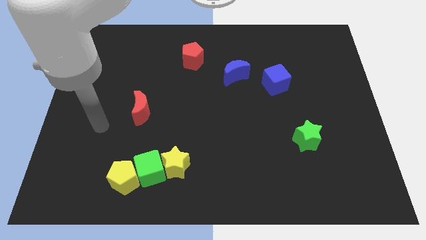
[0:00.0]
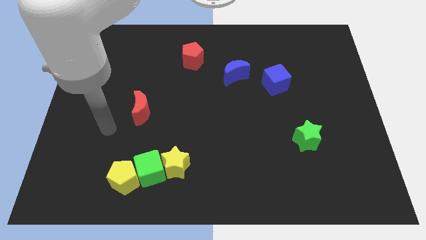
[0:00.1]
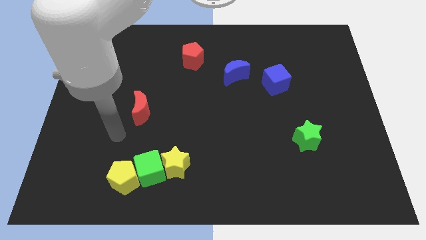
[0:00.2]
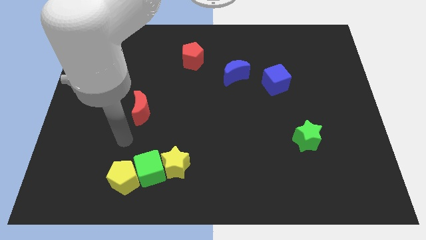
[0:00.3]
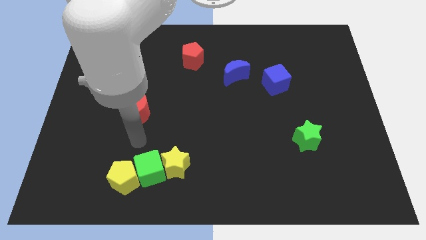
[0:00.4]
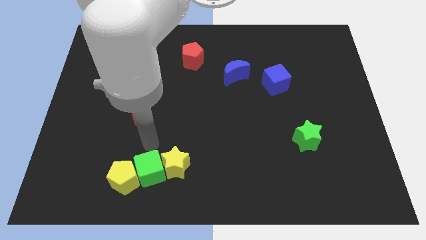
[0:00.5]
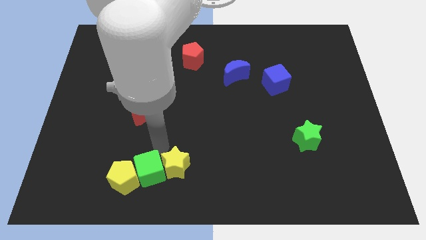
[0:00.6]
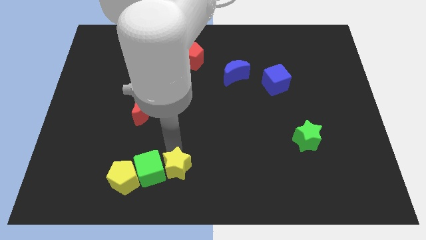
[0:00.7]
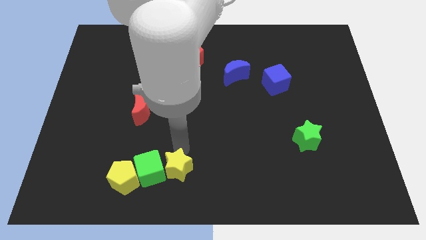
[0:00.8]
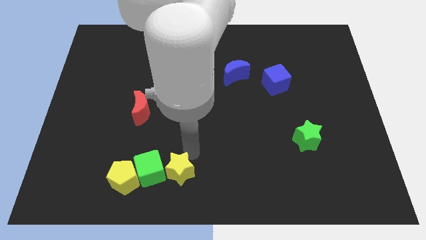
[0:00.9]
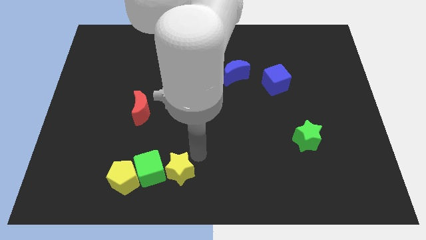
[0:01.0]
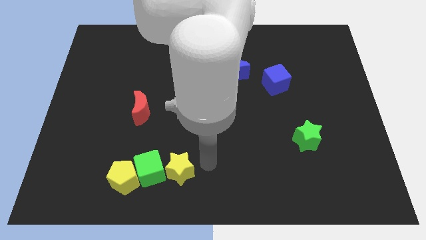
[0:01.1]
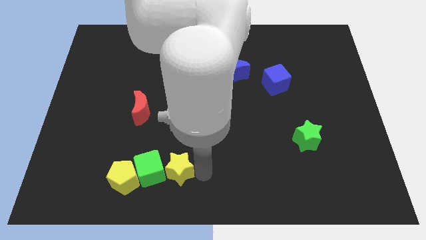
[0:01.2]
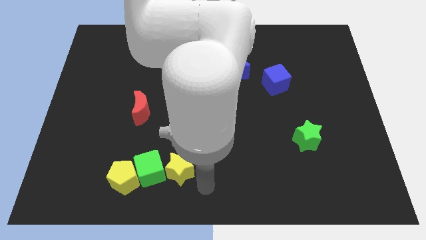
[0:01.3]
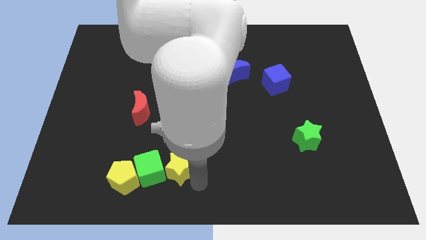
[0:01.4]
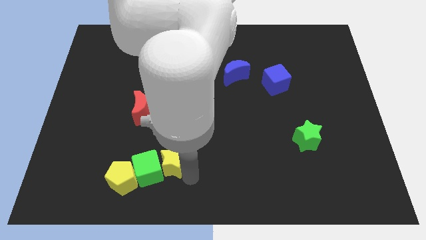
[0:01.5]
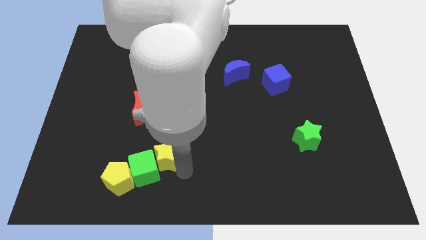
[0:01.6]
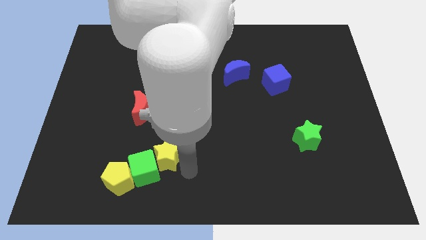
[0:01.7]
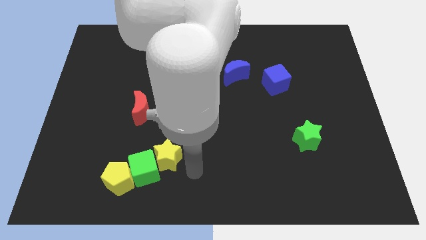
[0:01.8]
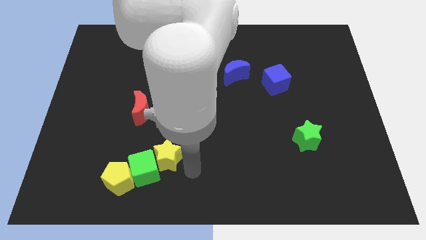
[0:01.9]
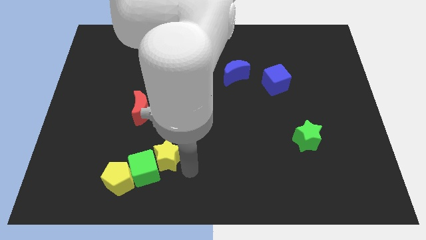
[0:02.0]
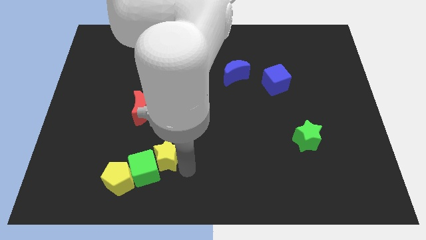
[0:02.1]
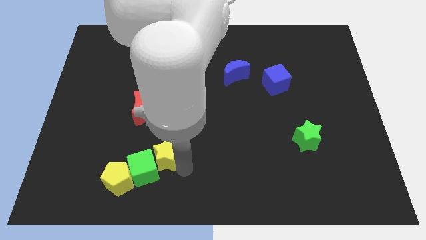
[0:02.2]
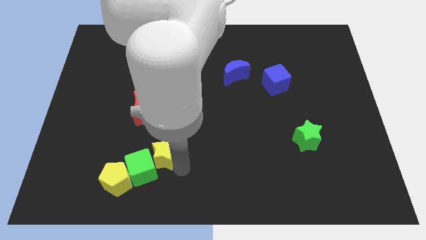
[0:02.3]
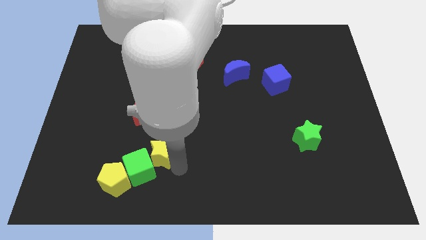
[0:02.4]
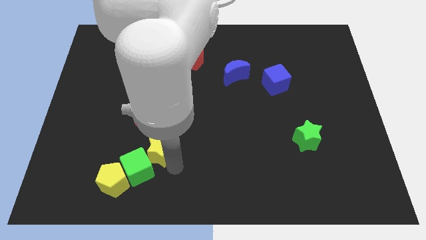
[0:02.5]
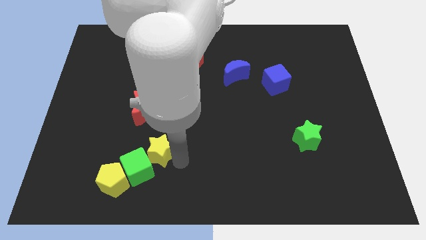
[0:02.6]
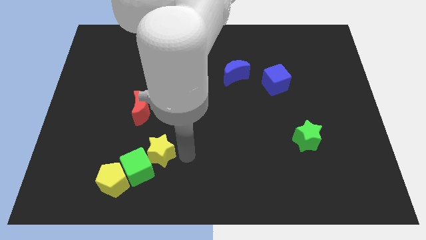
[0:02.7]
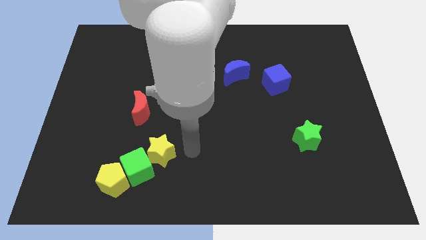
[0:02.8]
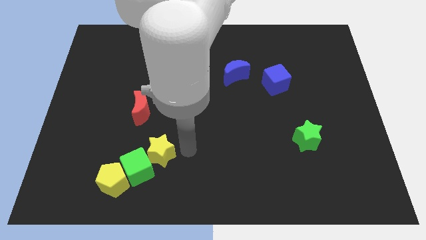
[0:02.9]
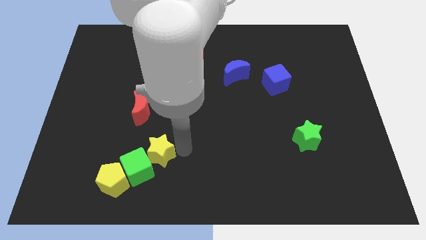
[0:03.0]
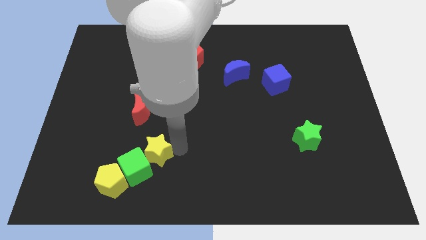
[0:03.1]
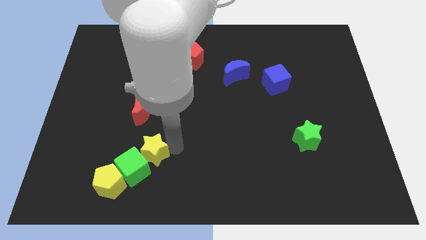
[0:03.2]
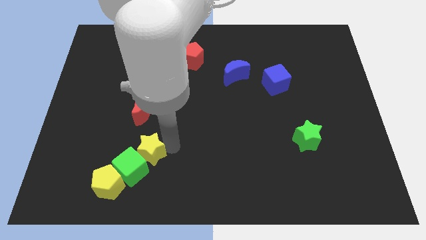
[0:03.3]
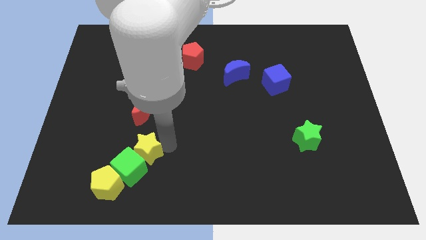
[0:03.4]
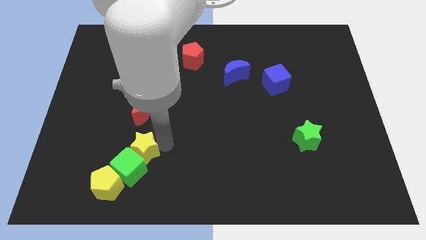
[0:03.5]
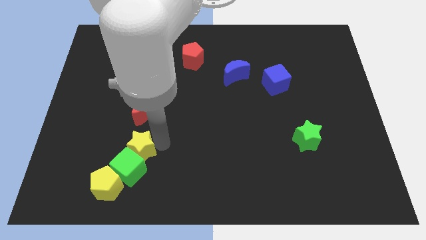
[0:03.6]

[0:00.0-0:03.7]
slightly push the yellow star to the left

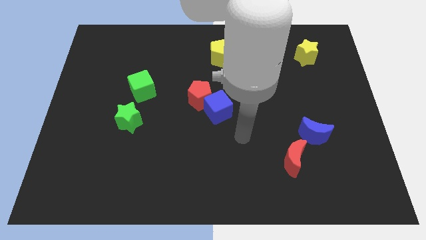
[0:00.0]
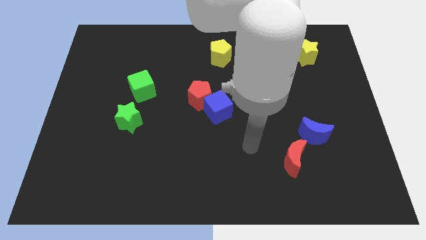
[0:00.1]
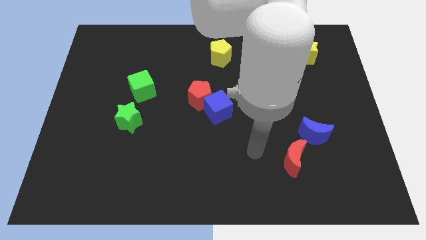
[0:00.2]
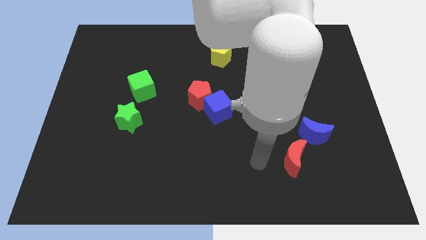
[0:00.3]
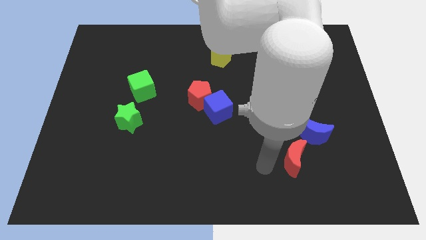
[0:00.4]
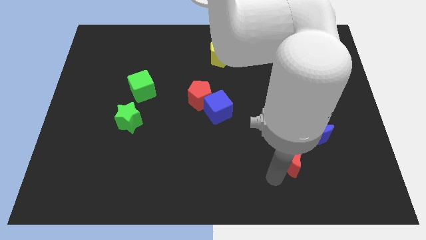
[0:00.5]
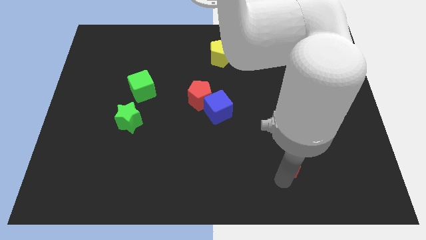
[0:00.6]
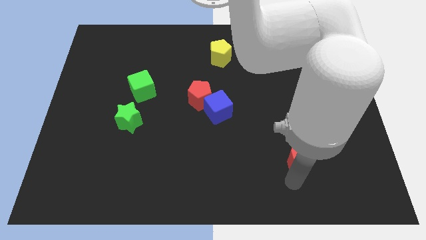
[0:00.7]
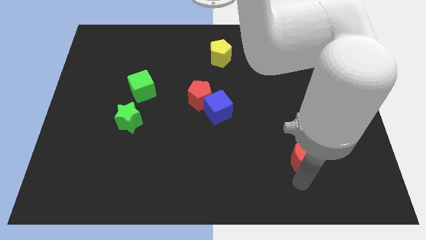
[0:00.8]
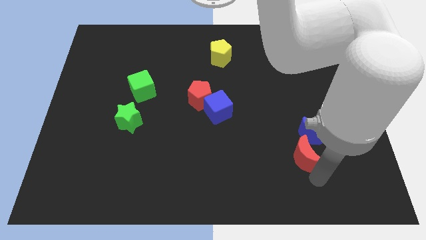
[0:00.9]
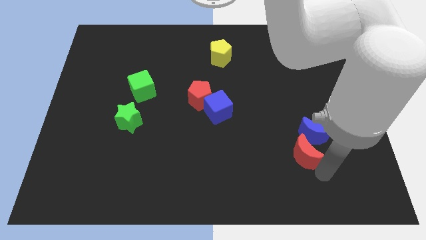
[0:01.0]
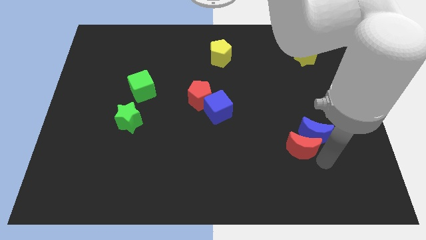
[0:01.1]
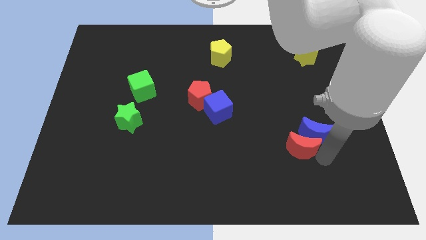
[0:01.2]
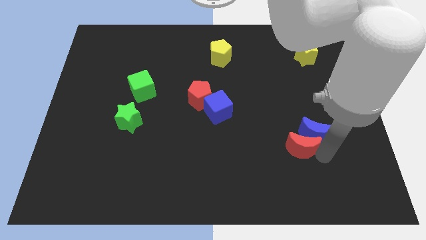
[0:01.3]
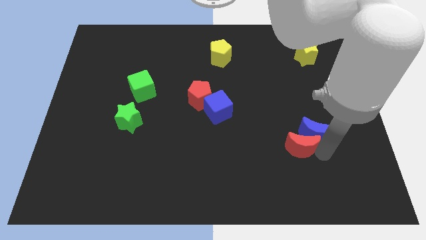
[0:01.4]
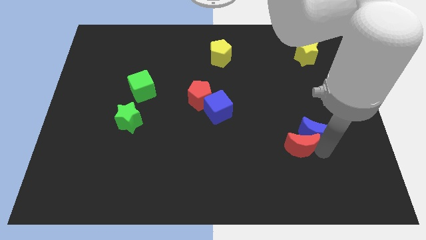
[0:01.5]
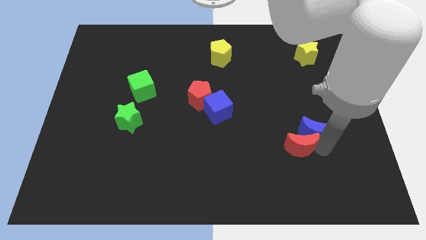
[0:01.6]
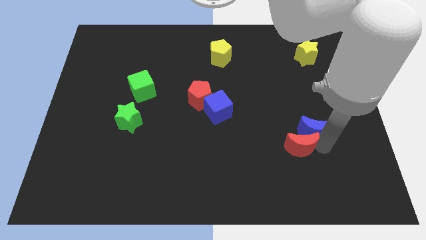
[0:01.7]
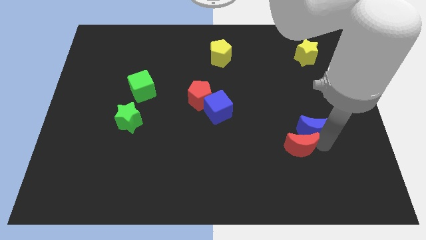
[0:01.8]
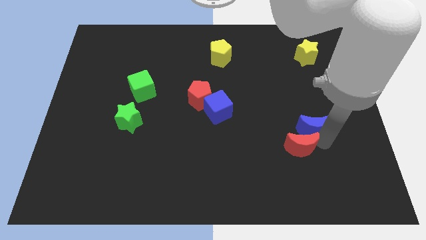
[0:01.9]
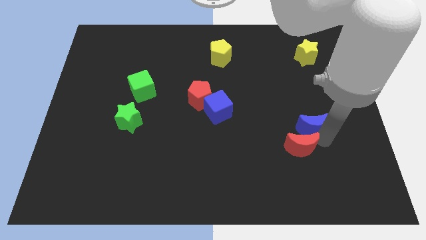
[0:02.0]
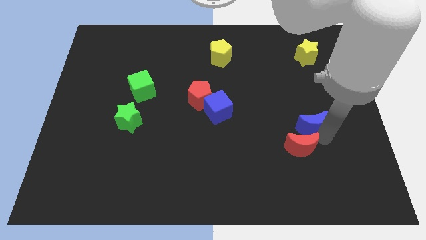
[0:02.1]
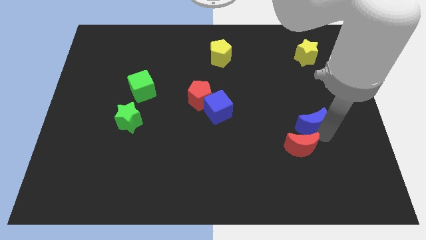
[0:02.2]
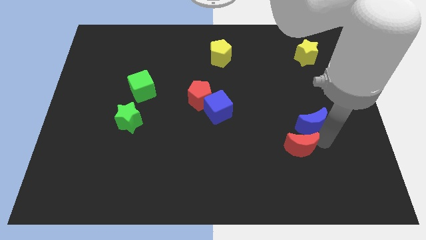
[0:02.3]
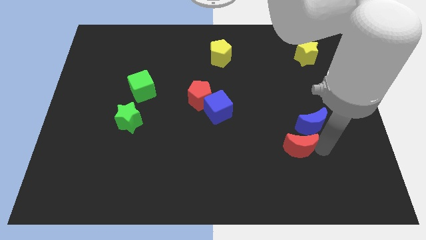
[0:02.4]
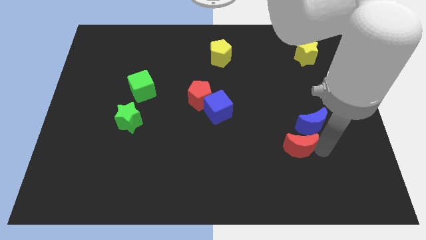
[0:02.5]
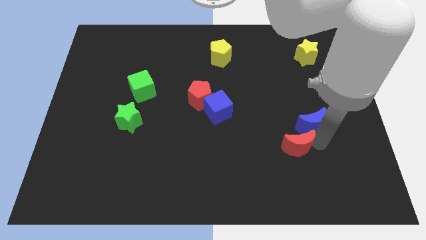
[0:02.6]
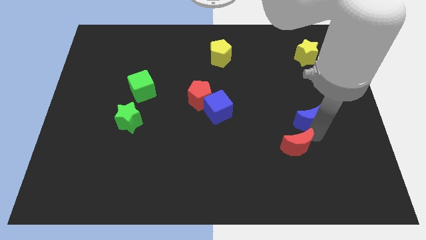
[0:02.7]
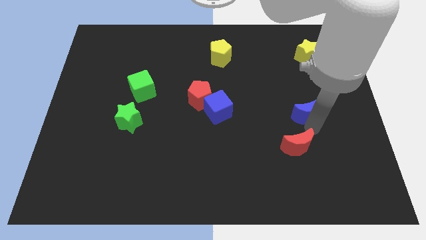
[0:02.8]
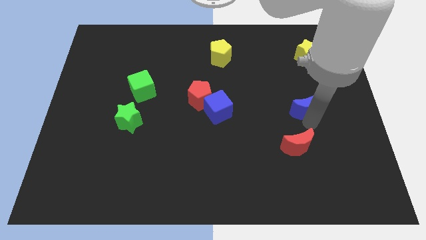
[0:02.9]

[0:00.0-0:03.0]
push the blue moon up a bit

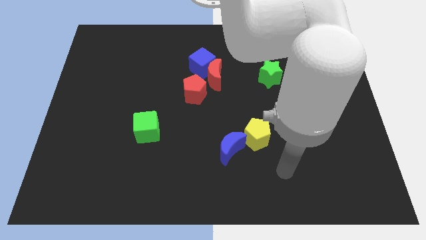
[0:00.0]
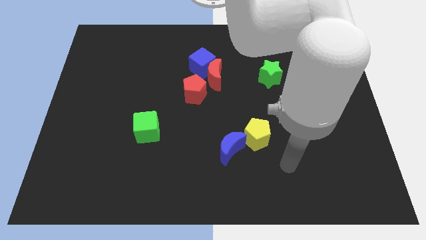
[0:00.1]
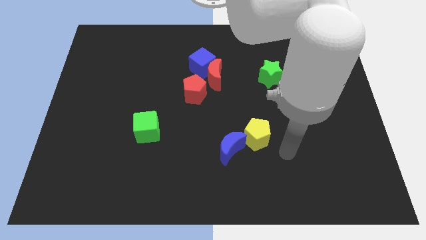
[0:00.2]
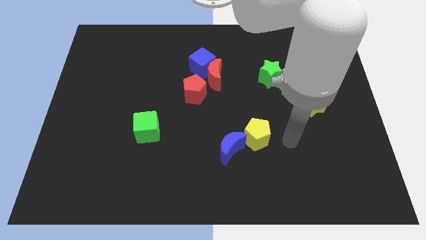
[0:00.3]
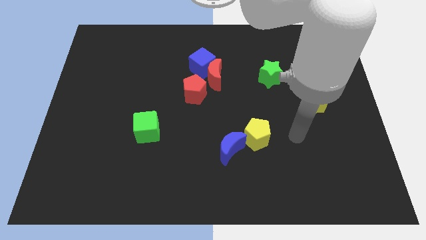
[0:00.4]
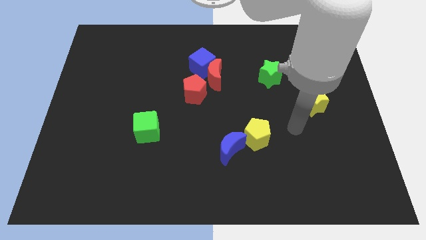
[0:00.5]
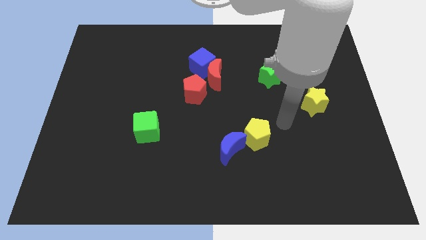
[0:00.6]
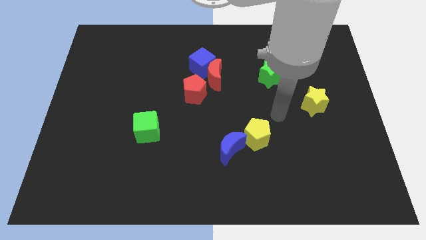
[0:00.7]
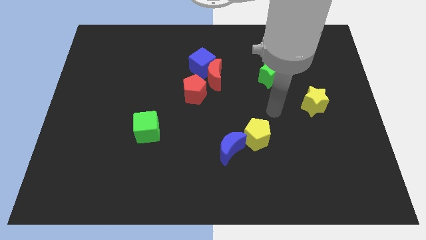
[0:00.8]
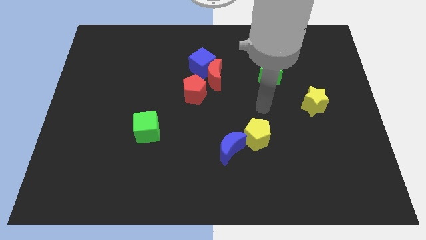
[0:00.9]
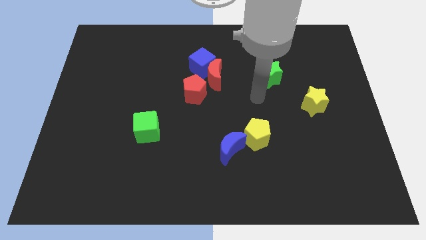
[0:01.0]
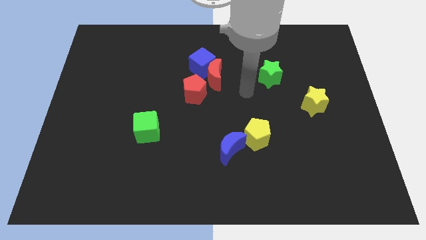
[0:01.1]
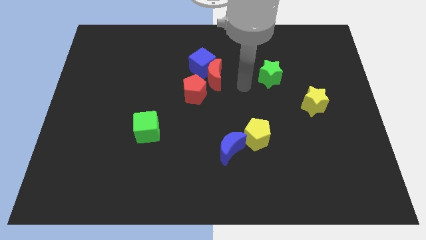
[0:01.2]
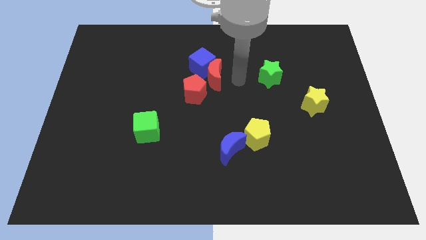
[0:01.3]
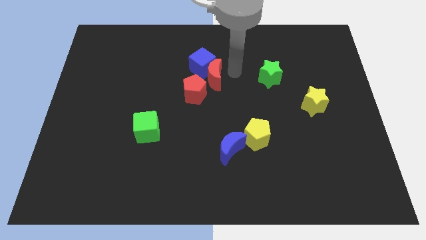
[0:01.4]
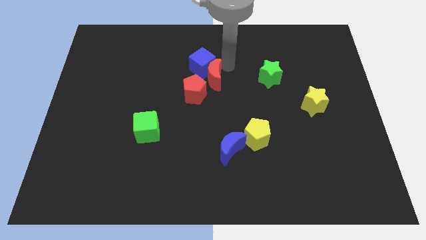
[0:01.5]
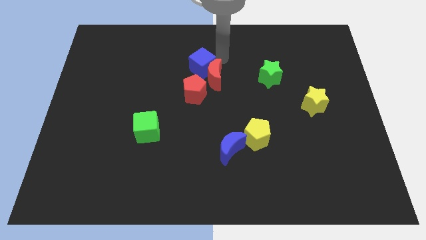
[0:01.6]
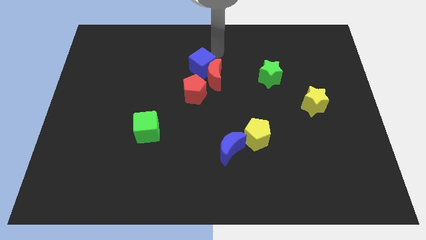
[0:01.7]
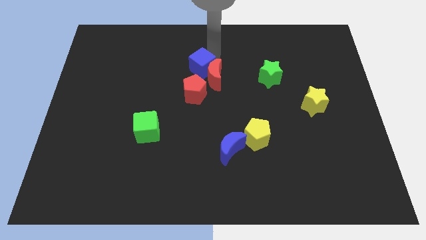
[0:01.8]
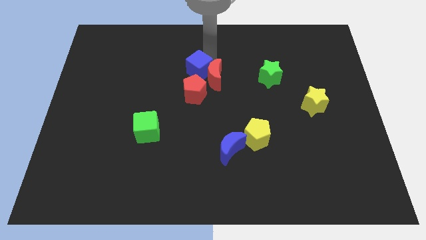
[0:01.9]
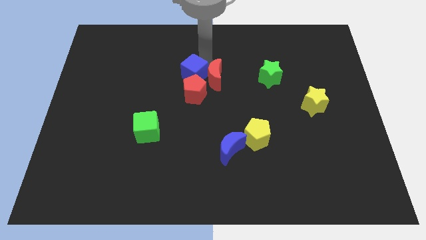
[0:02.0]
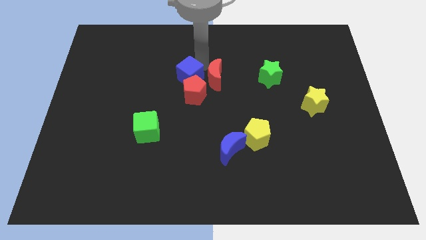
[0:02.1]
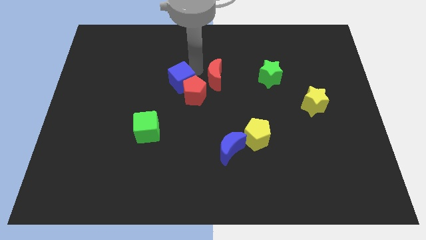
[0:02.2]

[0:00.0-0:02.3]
slightly push the blue cube down and to the left
